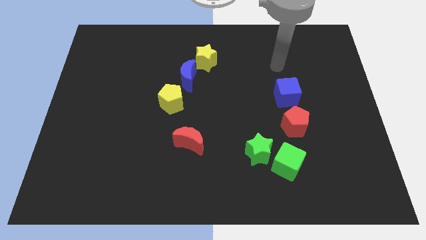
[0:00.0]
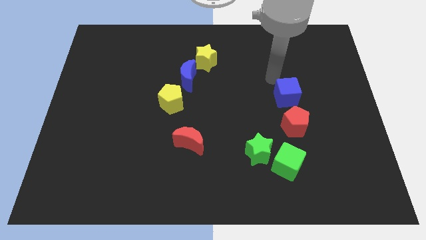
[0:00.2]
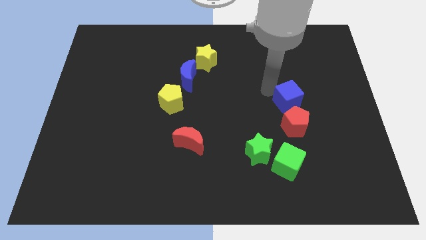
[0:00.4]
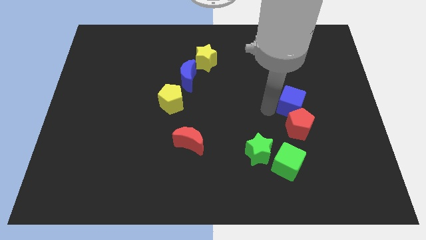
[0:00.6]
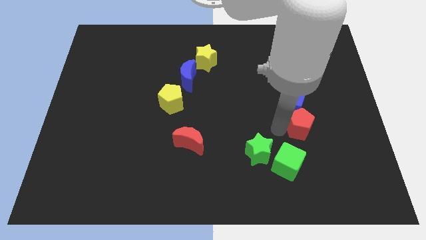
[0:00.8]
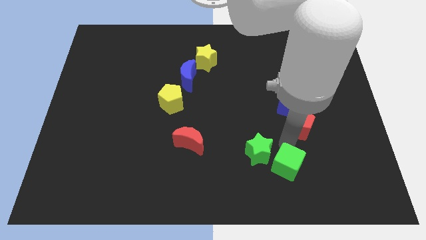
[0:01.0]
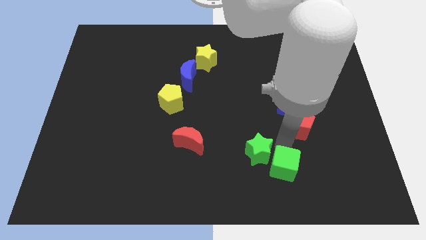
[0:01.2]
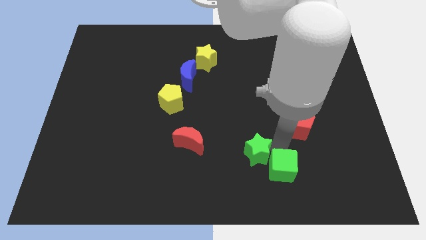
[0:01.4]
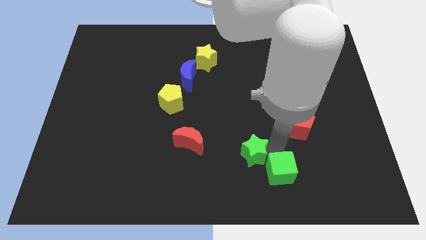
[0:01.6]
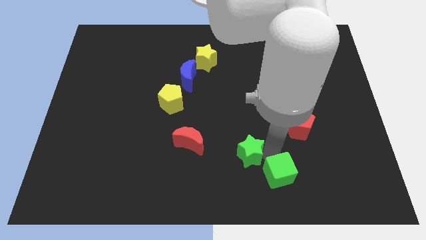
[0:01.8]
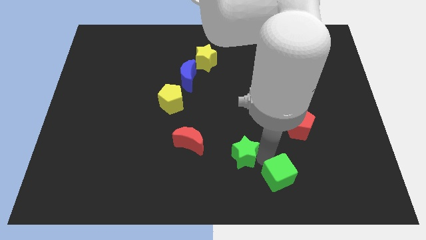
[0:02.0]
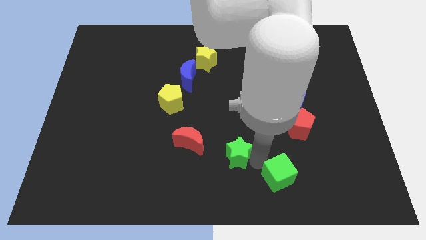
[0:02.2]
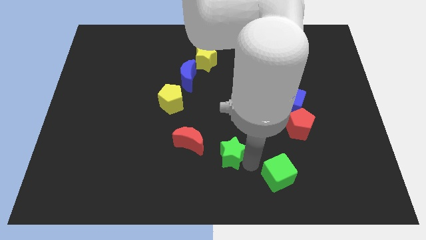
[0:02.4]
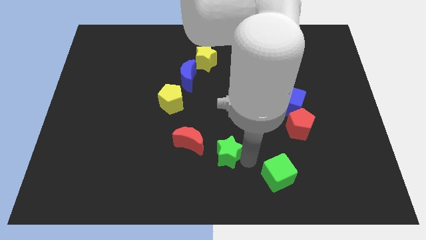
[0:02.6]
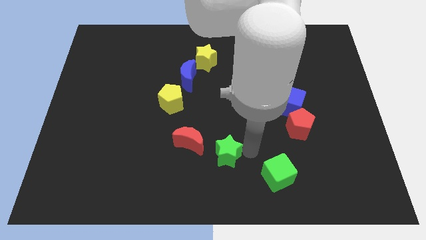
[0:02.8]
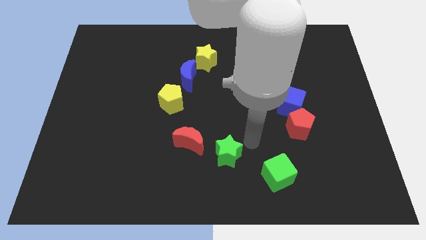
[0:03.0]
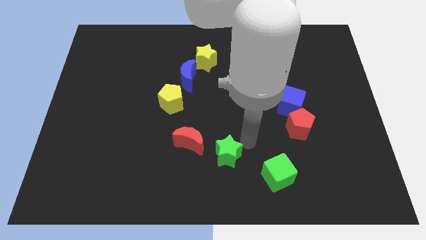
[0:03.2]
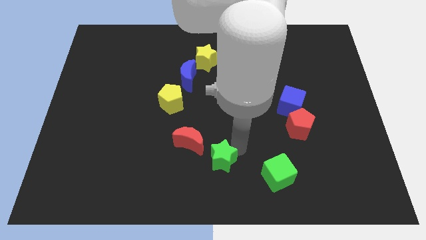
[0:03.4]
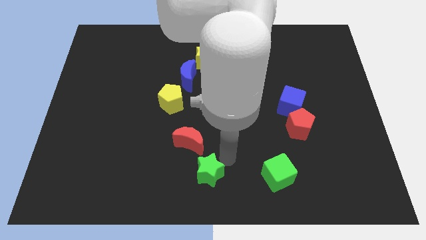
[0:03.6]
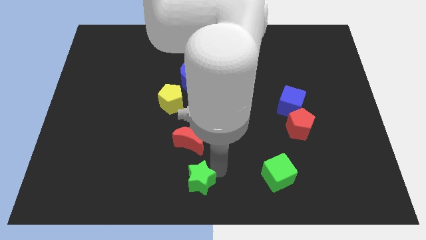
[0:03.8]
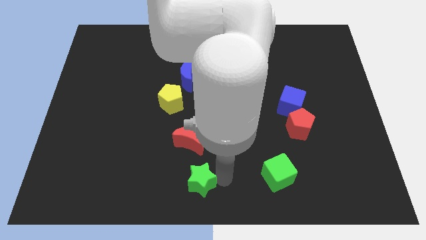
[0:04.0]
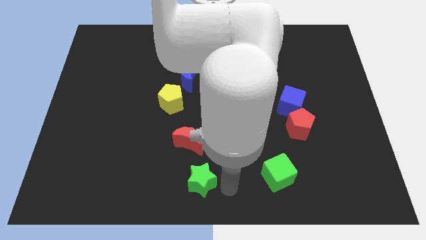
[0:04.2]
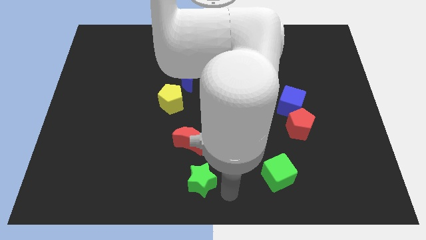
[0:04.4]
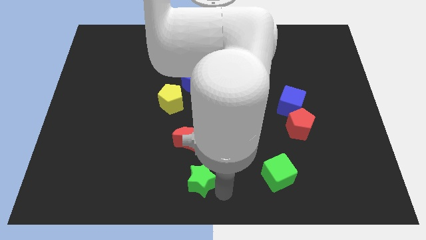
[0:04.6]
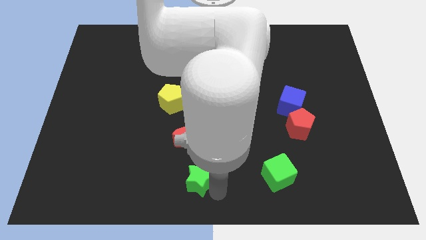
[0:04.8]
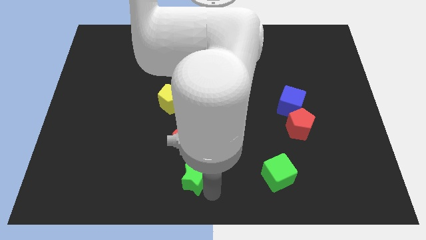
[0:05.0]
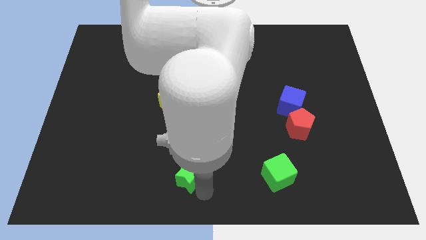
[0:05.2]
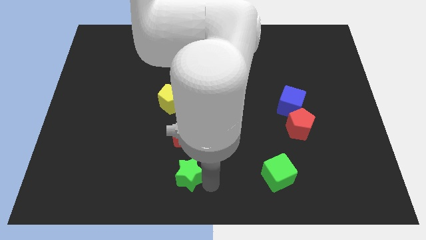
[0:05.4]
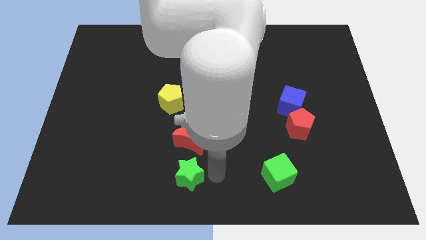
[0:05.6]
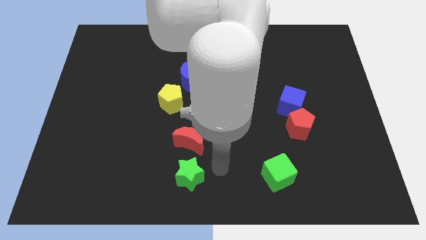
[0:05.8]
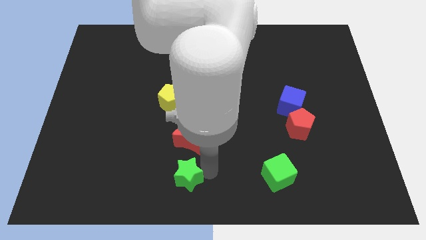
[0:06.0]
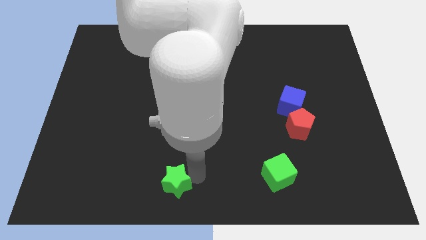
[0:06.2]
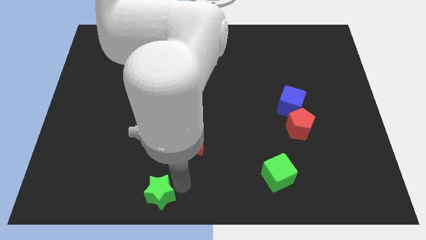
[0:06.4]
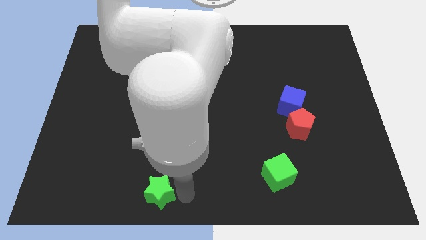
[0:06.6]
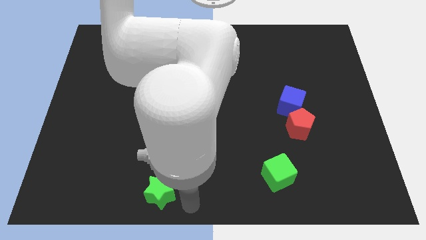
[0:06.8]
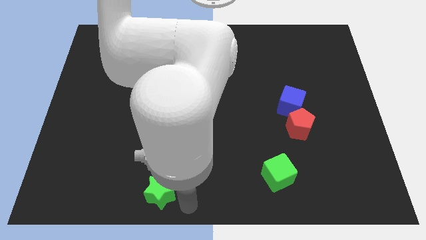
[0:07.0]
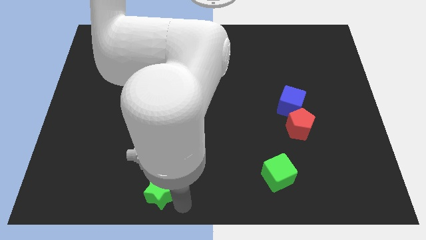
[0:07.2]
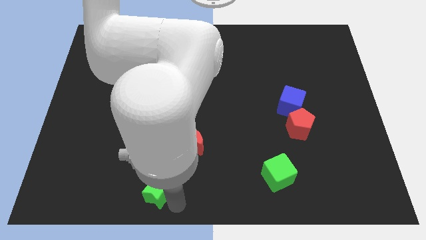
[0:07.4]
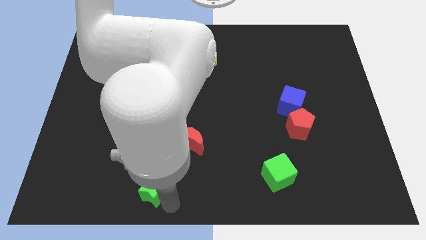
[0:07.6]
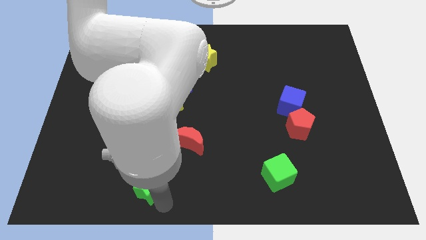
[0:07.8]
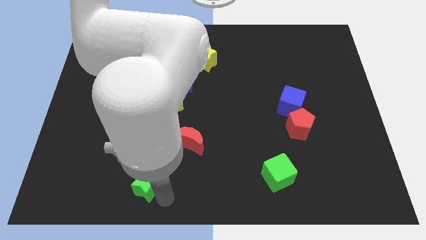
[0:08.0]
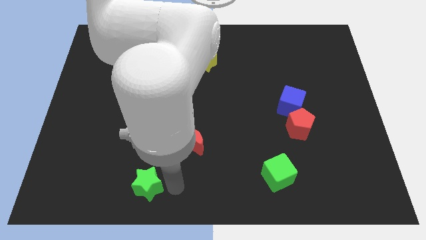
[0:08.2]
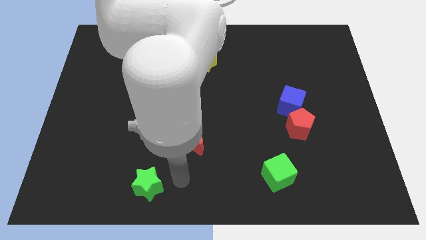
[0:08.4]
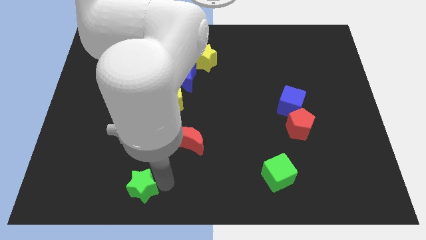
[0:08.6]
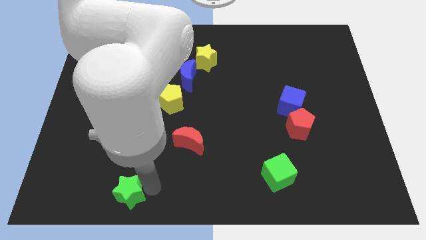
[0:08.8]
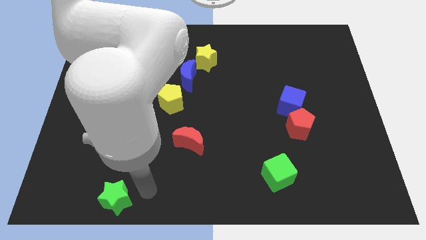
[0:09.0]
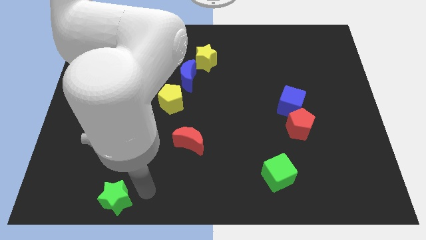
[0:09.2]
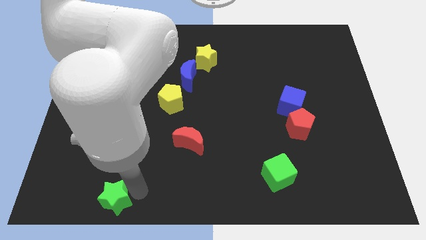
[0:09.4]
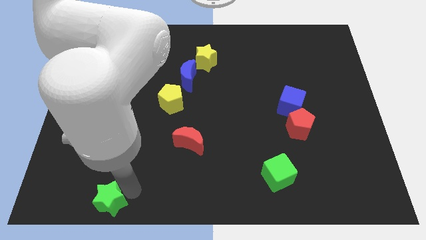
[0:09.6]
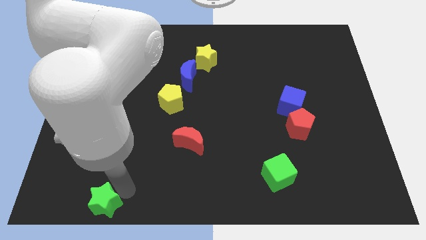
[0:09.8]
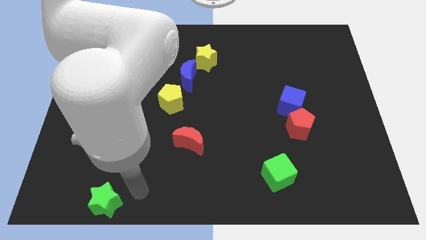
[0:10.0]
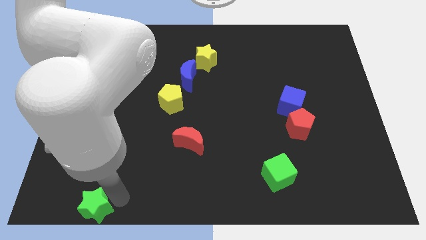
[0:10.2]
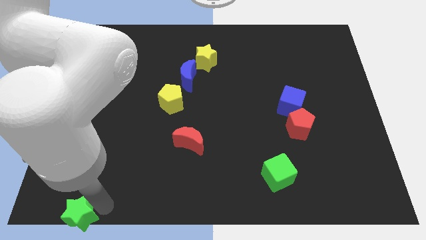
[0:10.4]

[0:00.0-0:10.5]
put the green star to the bottom left of the board

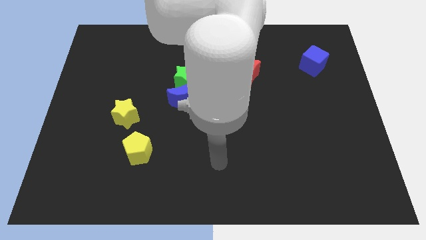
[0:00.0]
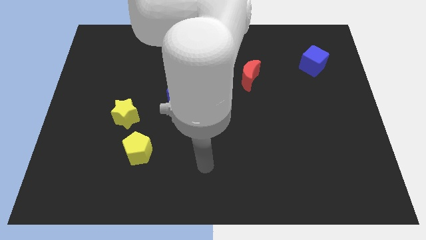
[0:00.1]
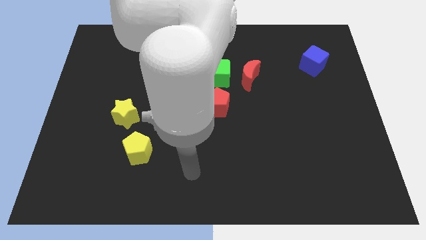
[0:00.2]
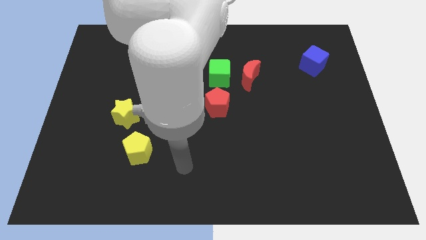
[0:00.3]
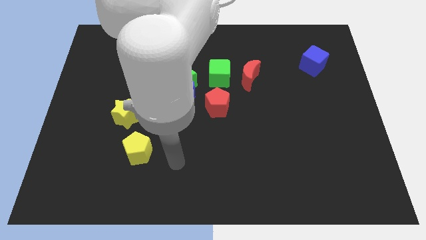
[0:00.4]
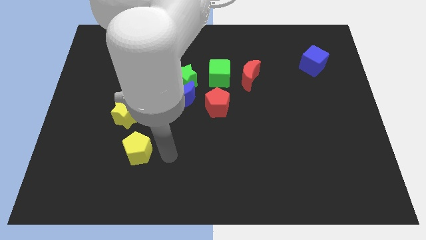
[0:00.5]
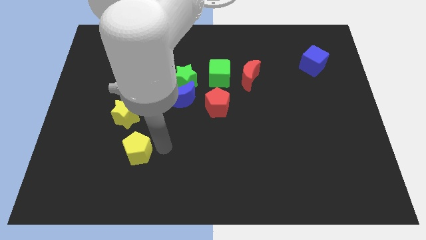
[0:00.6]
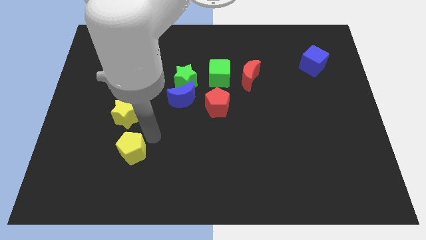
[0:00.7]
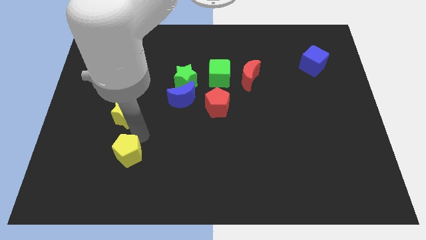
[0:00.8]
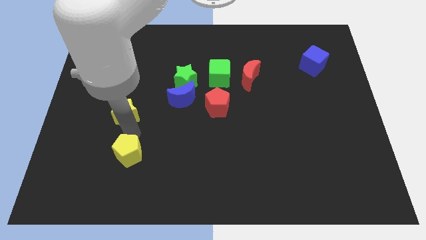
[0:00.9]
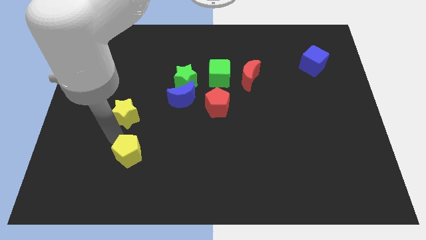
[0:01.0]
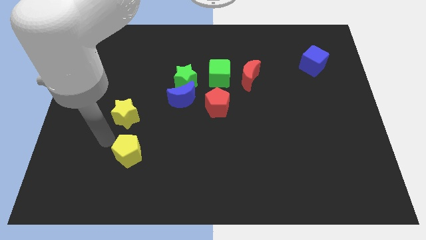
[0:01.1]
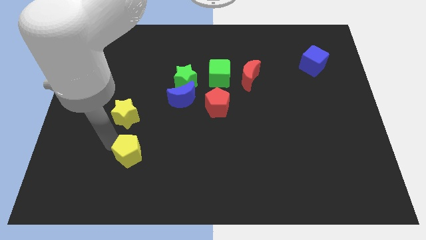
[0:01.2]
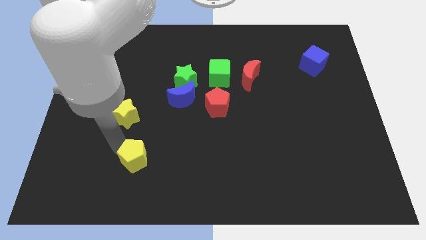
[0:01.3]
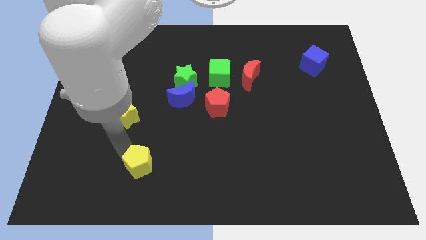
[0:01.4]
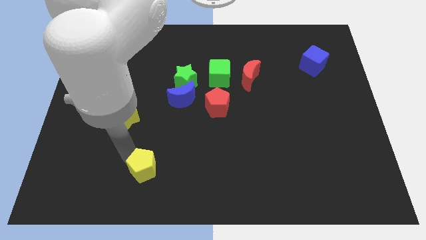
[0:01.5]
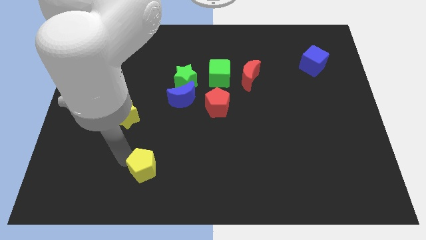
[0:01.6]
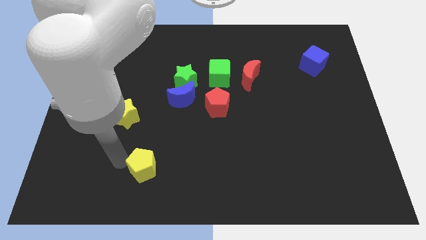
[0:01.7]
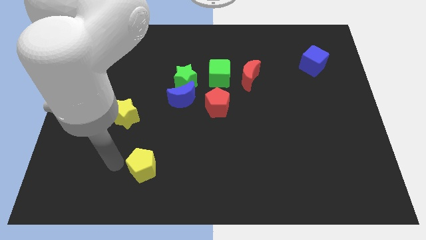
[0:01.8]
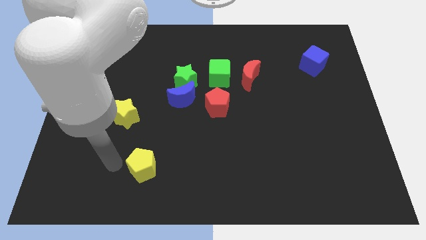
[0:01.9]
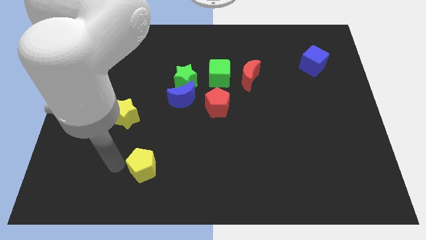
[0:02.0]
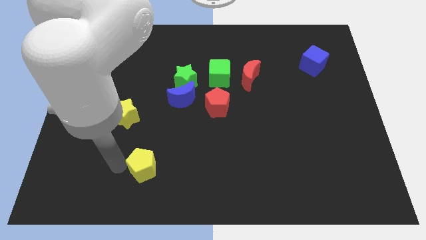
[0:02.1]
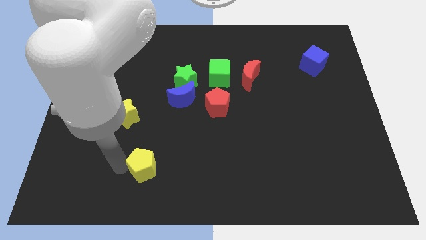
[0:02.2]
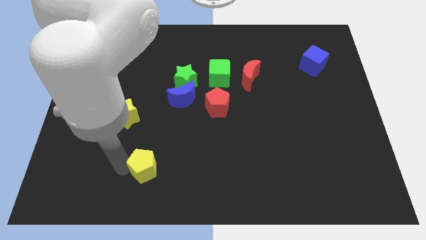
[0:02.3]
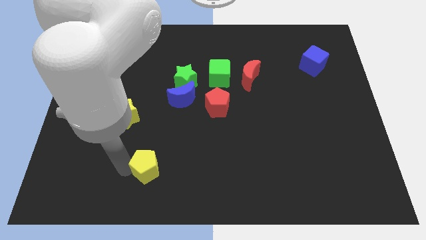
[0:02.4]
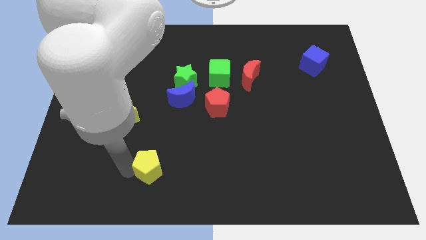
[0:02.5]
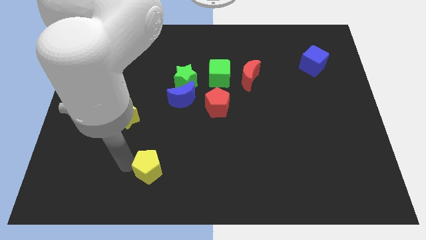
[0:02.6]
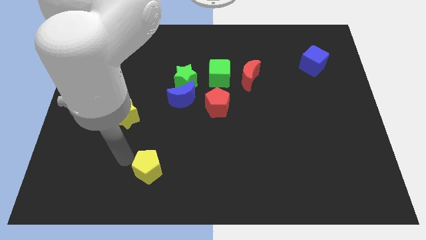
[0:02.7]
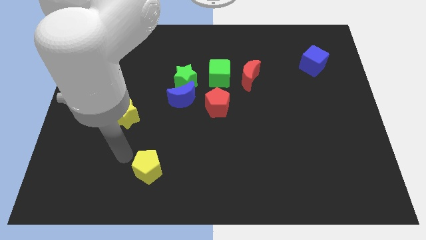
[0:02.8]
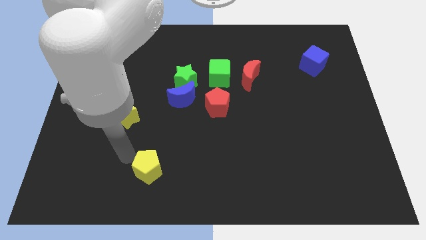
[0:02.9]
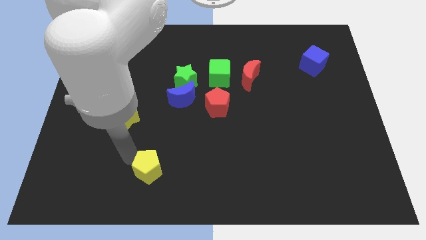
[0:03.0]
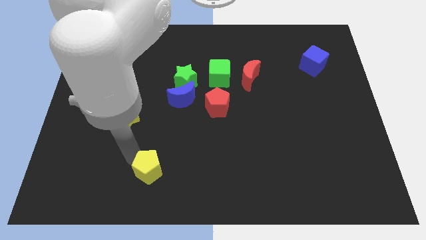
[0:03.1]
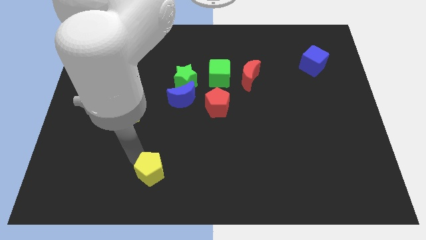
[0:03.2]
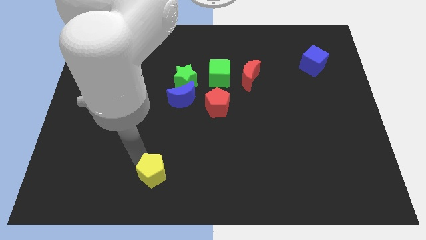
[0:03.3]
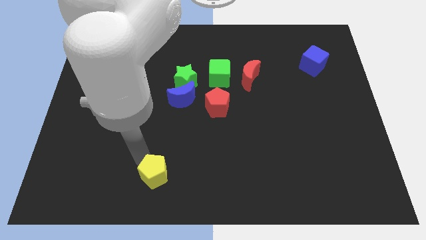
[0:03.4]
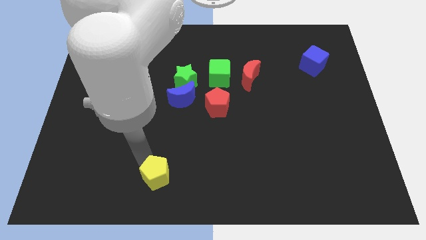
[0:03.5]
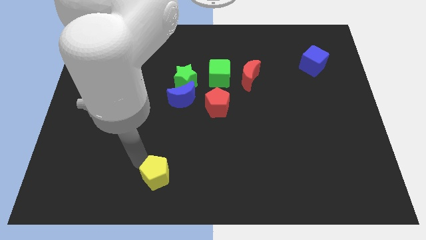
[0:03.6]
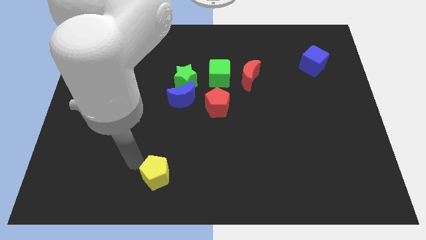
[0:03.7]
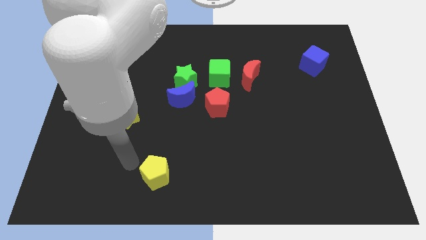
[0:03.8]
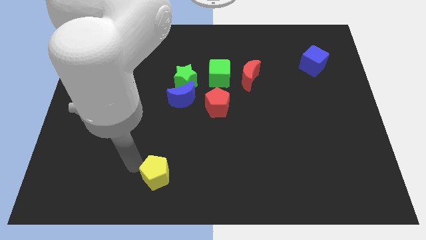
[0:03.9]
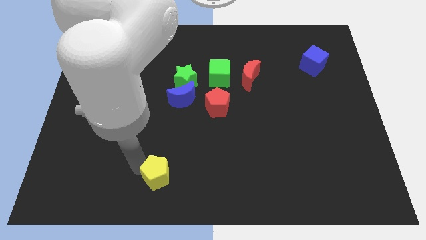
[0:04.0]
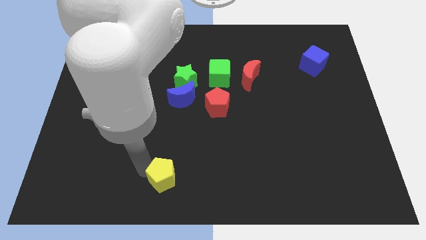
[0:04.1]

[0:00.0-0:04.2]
push the yellow pentagon to the bottom
